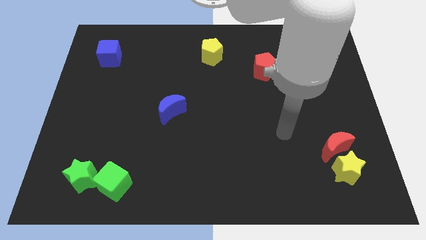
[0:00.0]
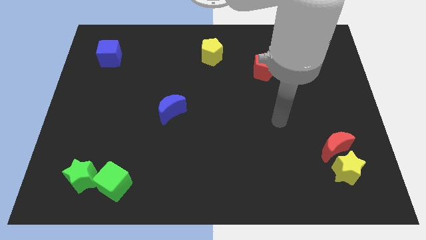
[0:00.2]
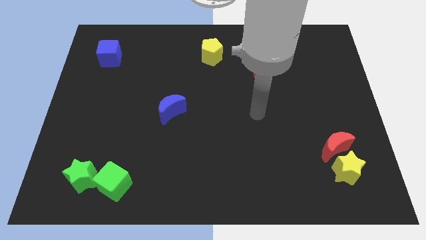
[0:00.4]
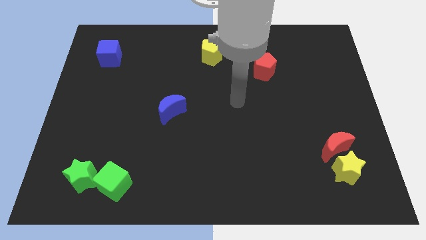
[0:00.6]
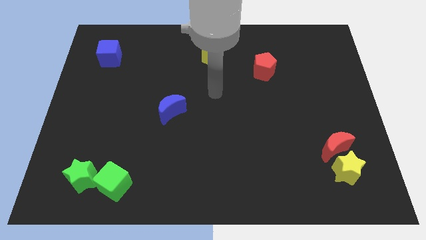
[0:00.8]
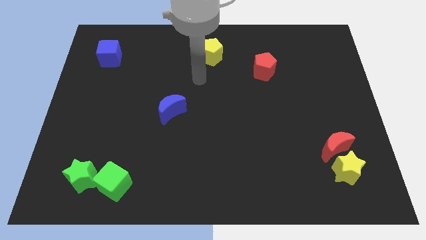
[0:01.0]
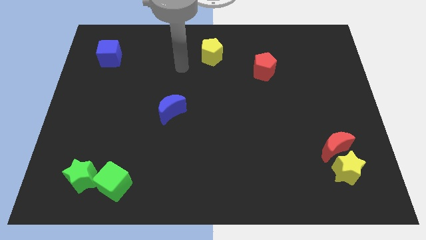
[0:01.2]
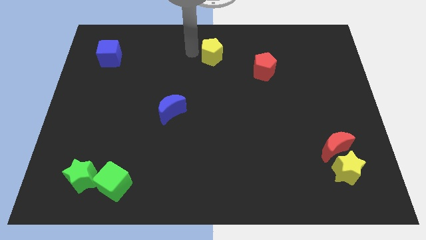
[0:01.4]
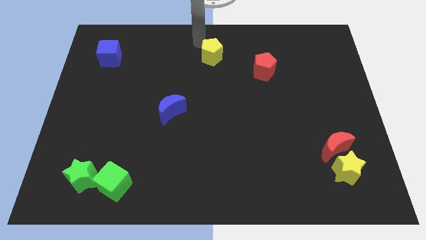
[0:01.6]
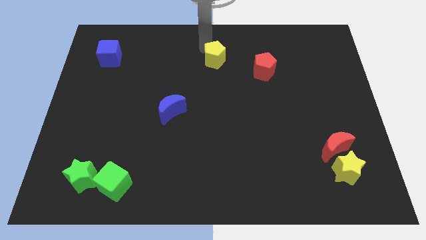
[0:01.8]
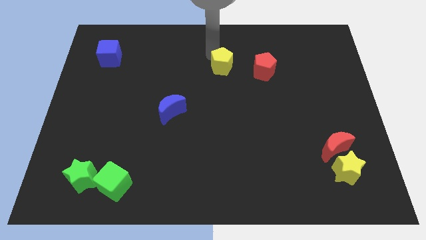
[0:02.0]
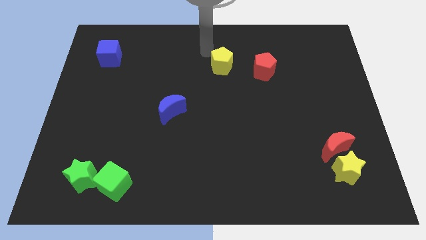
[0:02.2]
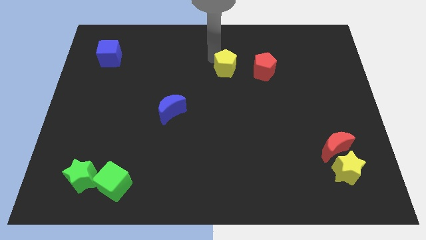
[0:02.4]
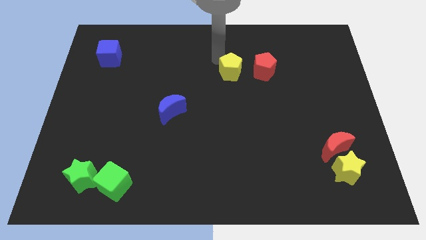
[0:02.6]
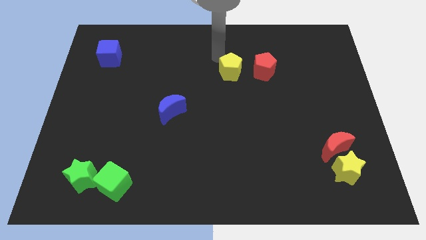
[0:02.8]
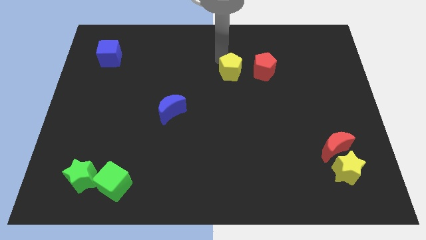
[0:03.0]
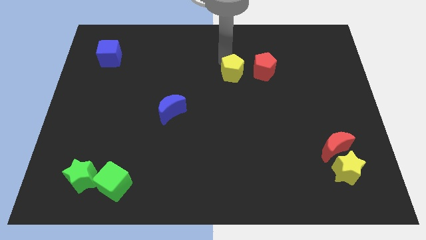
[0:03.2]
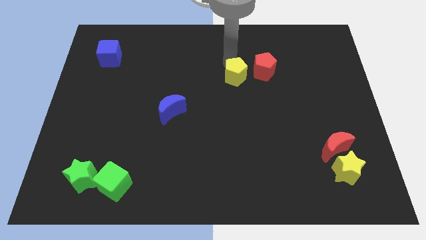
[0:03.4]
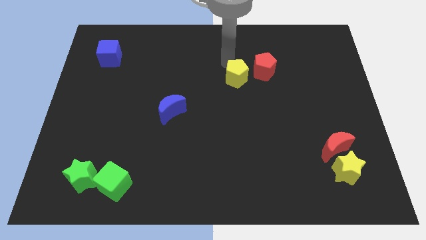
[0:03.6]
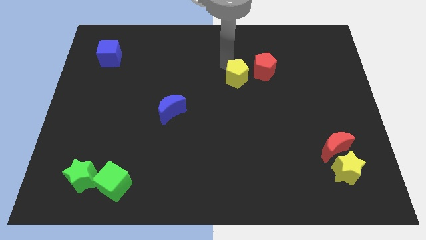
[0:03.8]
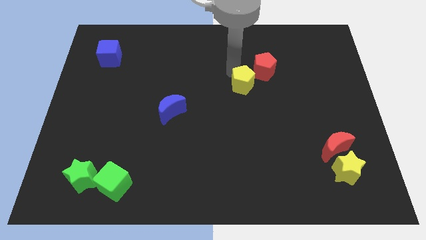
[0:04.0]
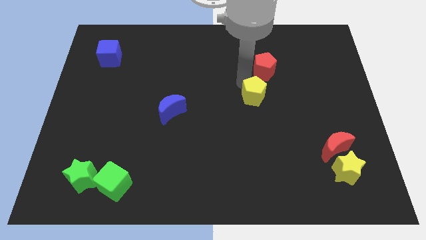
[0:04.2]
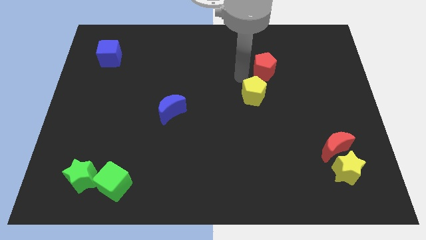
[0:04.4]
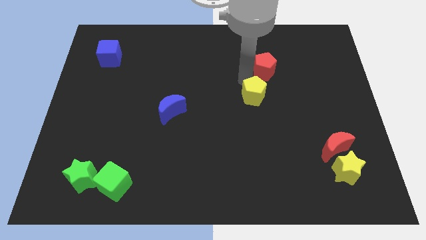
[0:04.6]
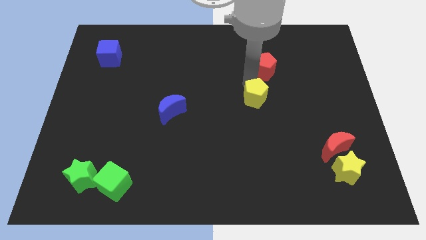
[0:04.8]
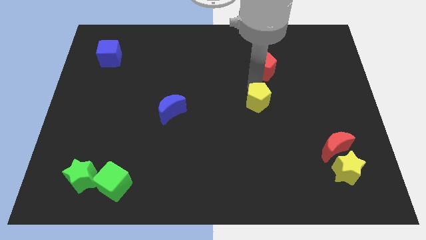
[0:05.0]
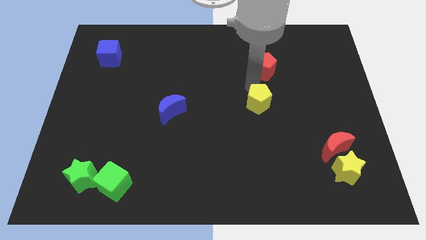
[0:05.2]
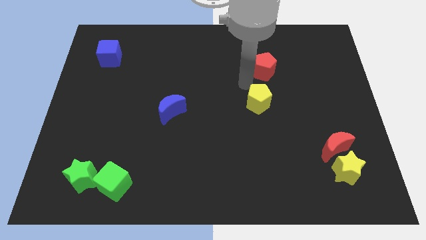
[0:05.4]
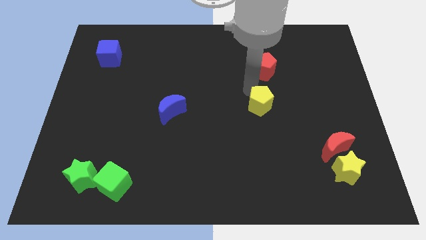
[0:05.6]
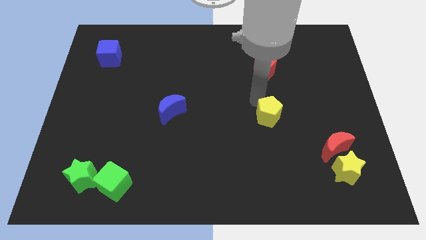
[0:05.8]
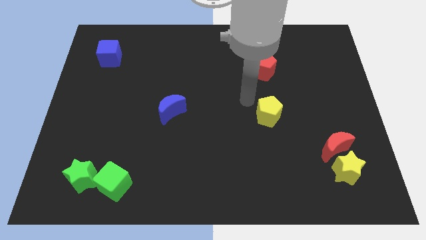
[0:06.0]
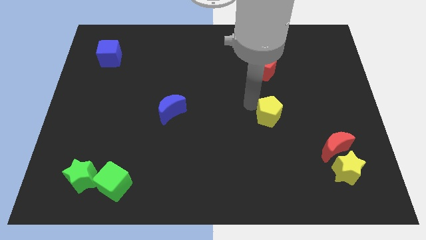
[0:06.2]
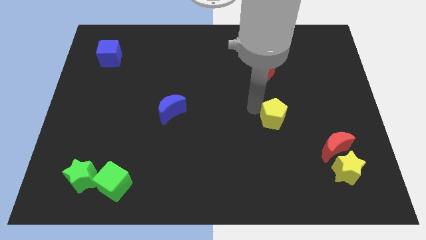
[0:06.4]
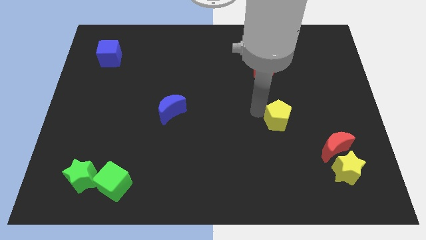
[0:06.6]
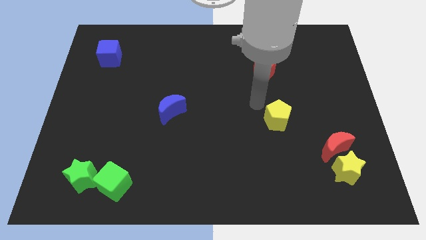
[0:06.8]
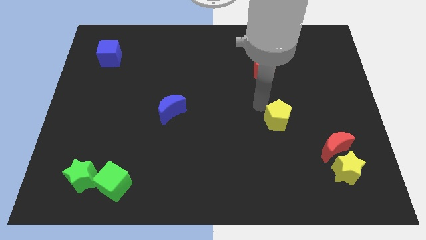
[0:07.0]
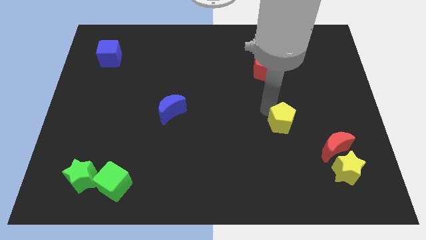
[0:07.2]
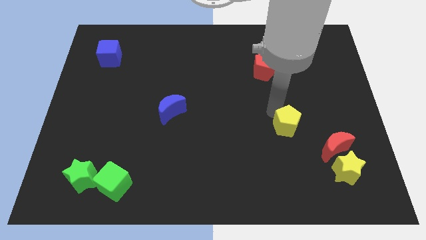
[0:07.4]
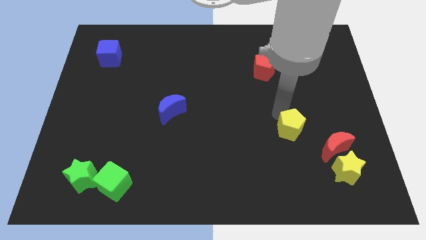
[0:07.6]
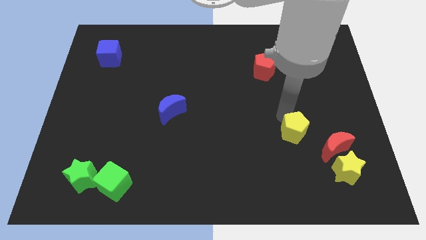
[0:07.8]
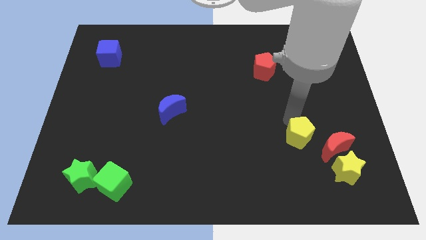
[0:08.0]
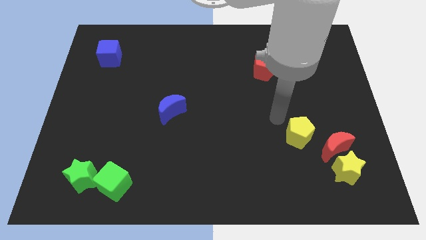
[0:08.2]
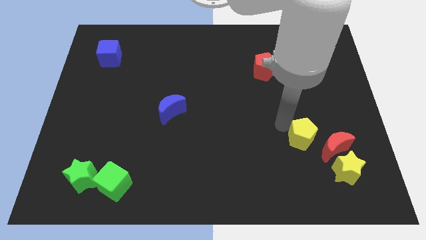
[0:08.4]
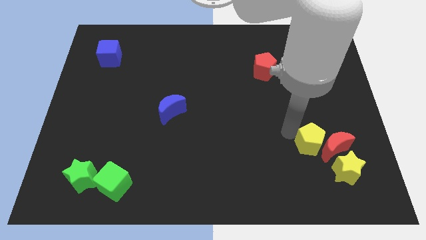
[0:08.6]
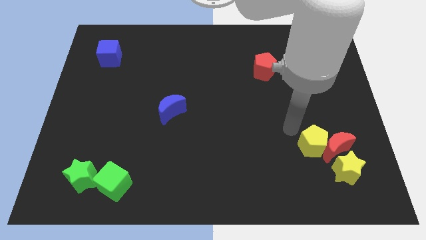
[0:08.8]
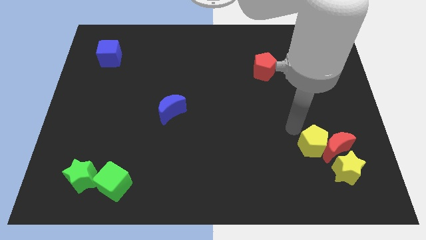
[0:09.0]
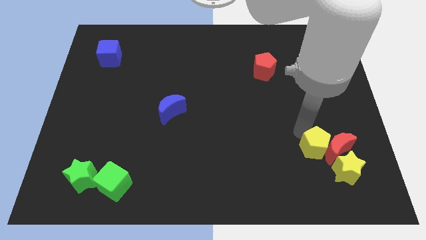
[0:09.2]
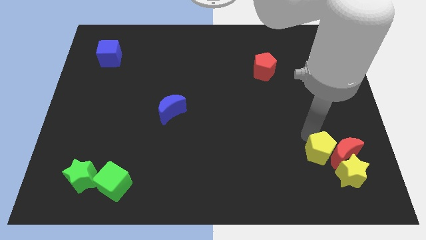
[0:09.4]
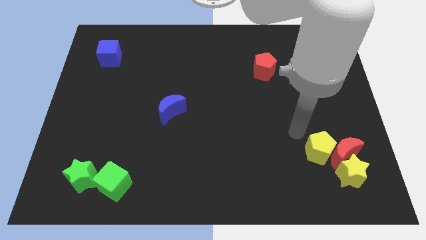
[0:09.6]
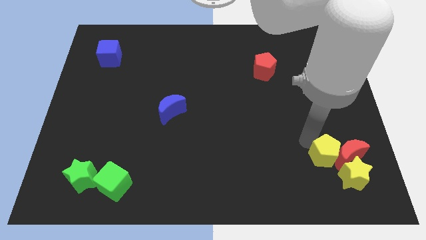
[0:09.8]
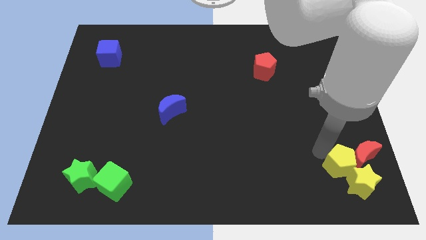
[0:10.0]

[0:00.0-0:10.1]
push the yellow pentagon next to the yellow star

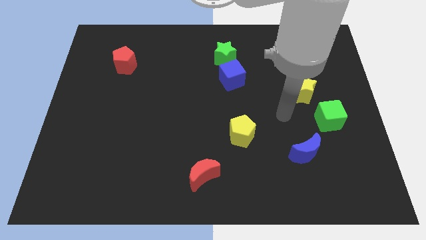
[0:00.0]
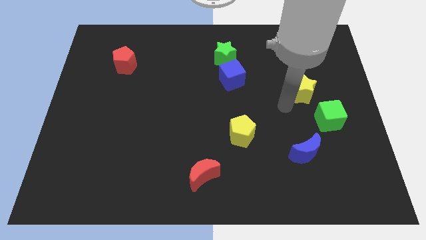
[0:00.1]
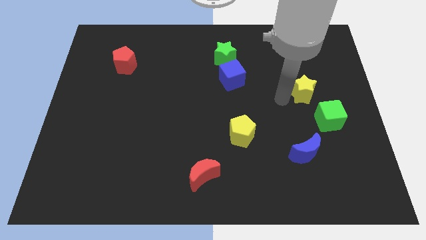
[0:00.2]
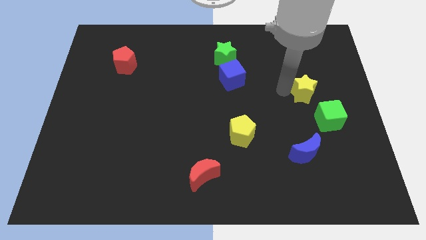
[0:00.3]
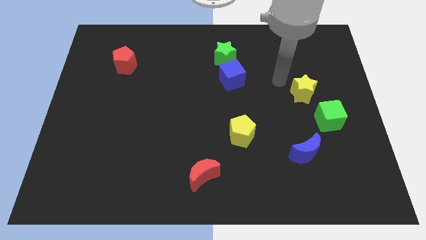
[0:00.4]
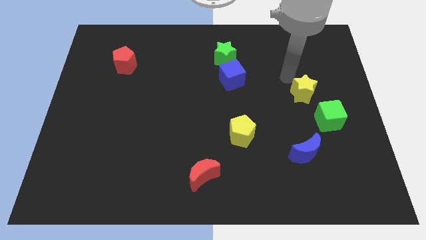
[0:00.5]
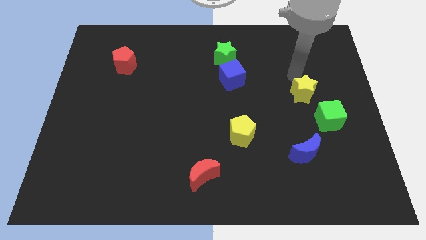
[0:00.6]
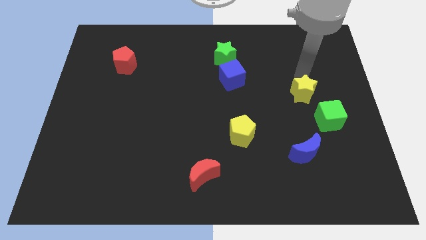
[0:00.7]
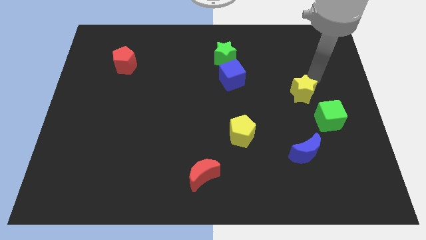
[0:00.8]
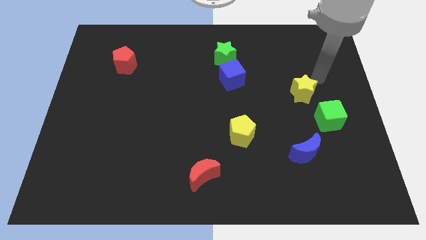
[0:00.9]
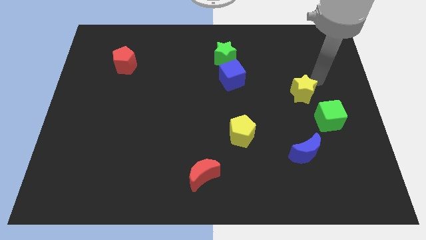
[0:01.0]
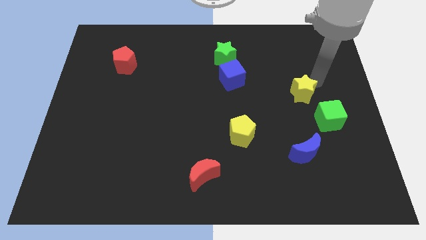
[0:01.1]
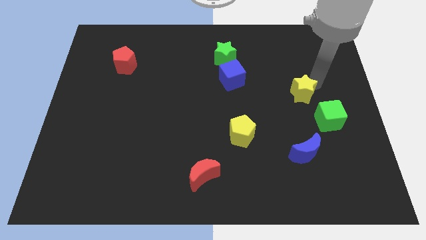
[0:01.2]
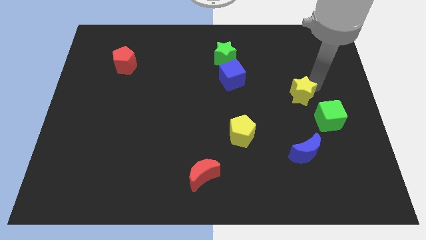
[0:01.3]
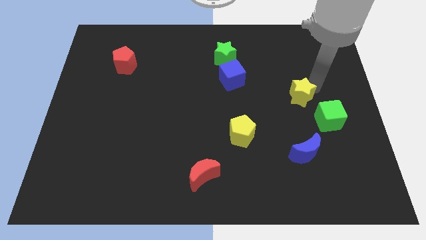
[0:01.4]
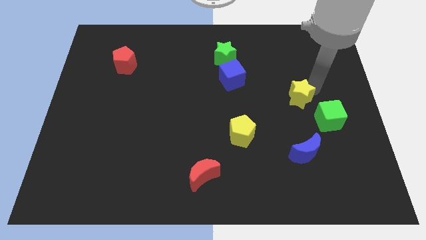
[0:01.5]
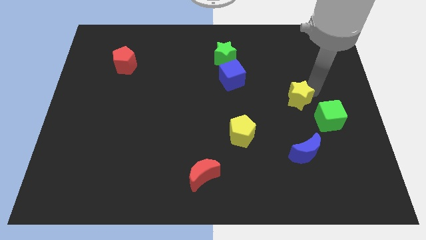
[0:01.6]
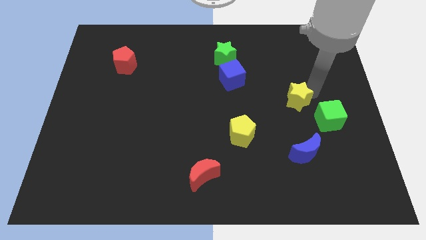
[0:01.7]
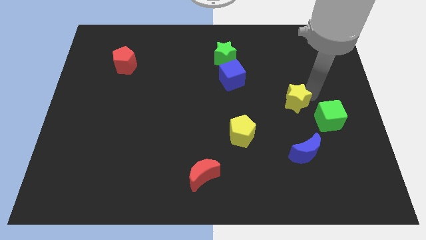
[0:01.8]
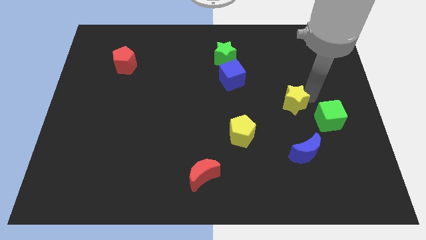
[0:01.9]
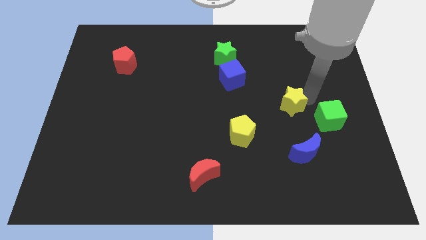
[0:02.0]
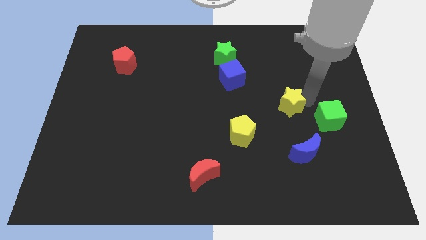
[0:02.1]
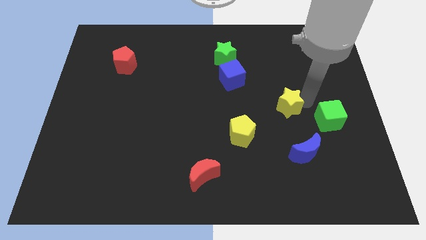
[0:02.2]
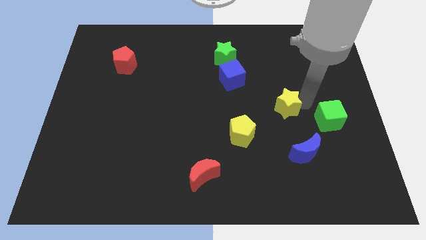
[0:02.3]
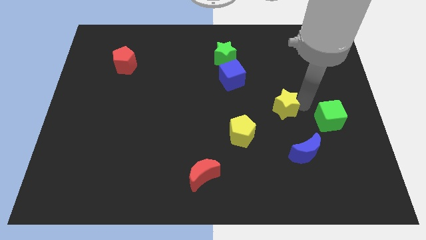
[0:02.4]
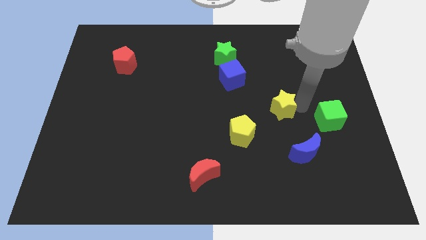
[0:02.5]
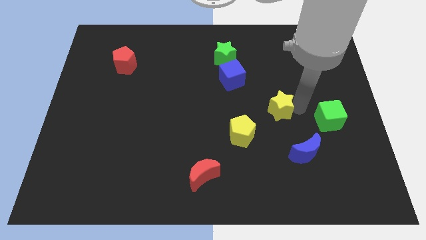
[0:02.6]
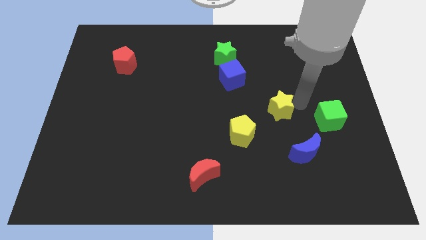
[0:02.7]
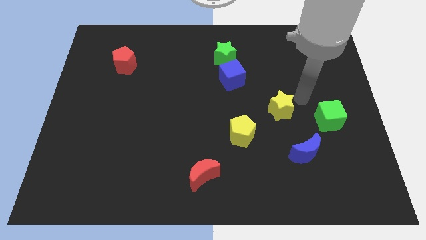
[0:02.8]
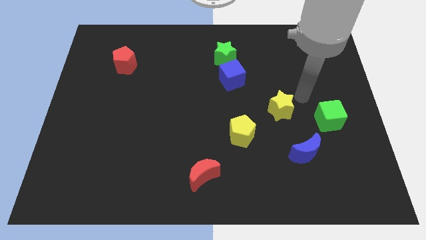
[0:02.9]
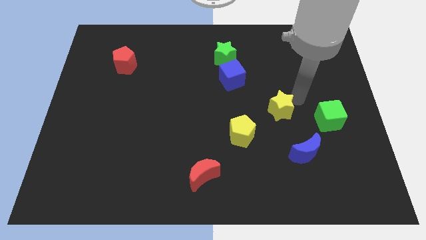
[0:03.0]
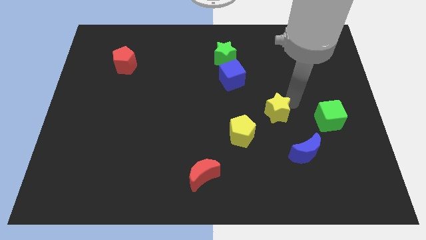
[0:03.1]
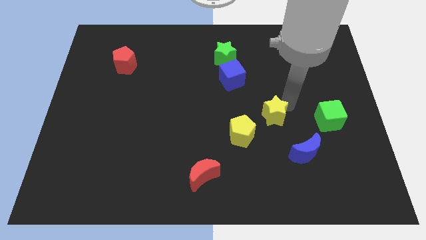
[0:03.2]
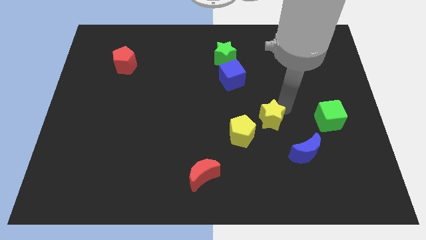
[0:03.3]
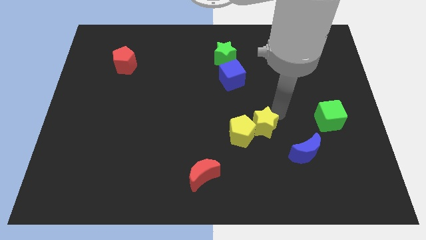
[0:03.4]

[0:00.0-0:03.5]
slide the yellow star to the yellow pentagon
